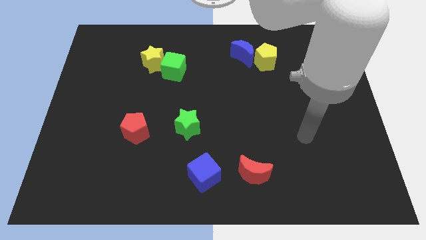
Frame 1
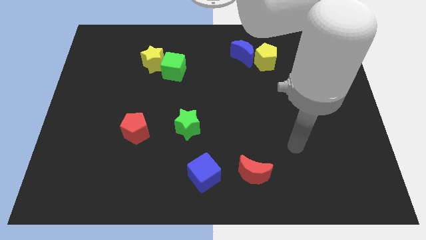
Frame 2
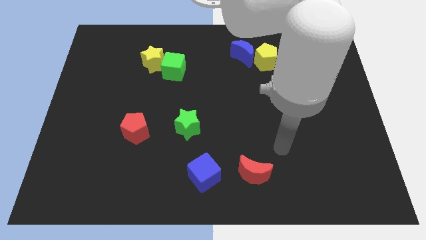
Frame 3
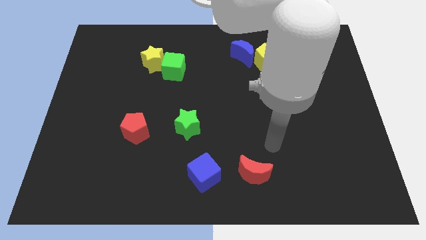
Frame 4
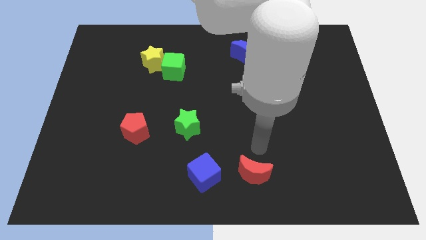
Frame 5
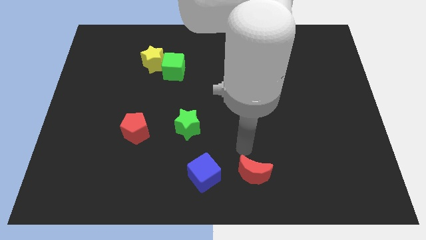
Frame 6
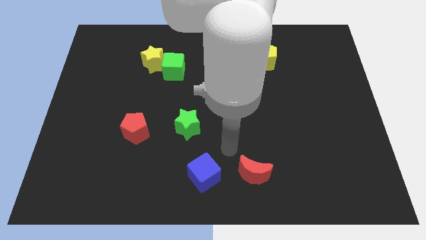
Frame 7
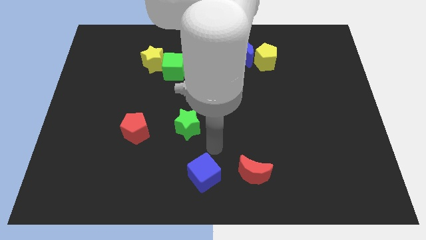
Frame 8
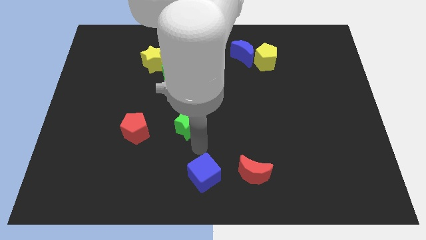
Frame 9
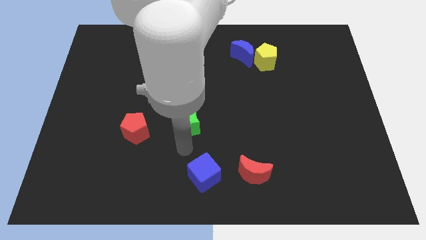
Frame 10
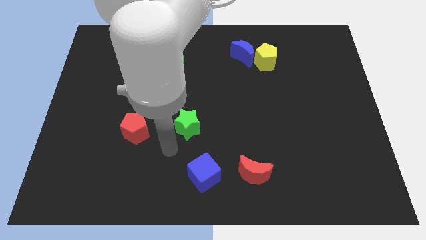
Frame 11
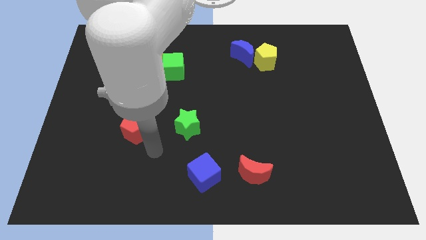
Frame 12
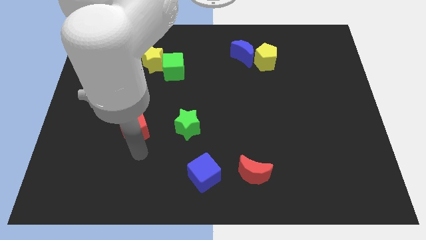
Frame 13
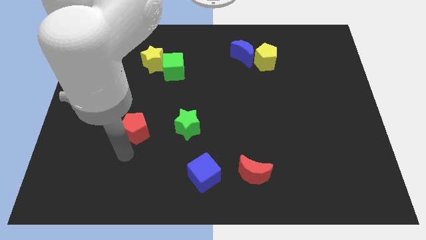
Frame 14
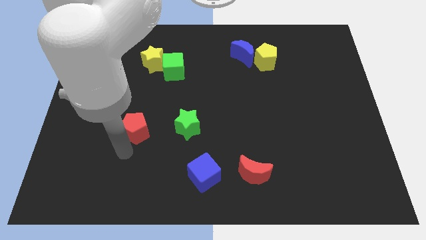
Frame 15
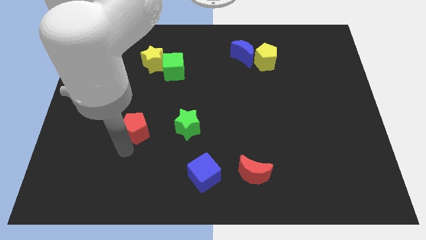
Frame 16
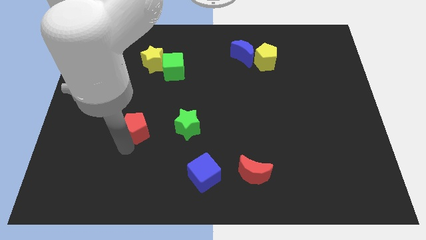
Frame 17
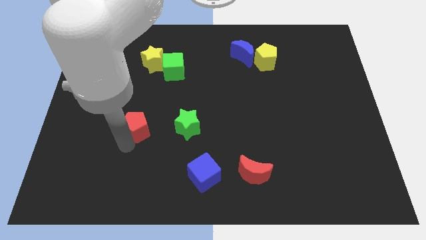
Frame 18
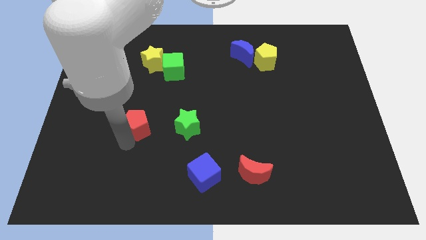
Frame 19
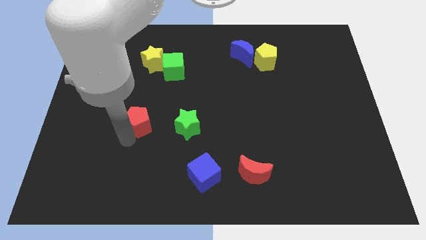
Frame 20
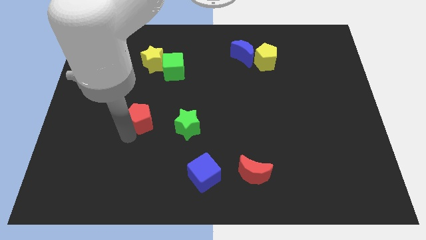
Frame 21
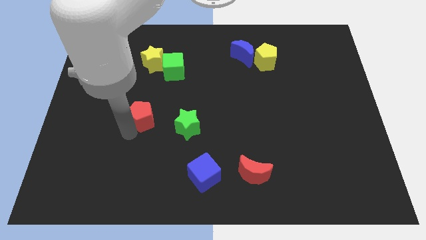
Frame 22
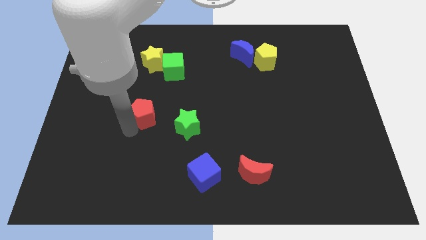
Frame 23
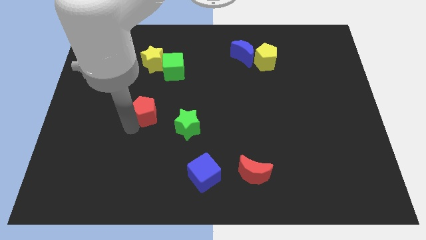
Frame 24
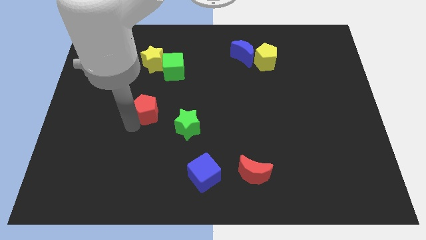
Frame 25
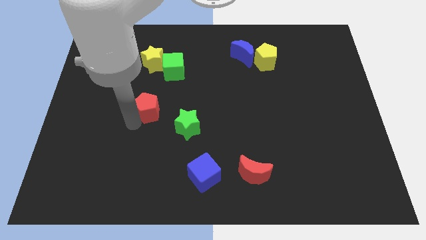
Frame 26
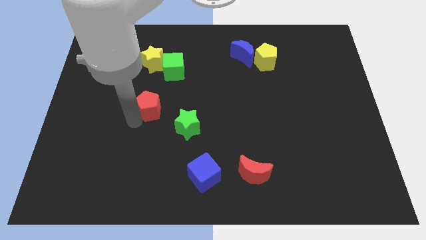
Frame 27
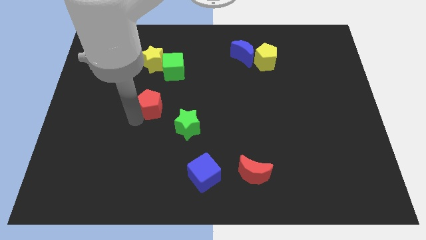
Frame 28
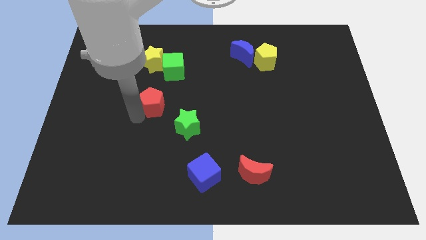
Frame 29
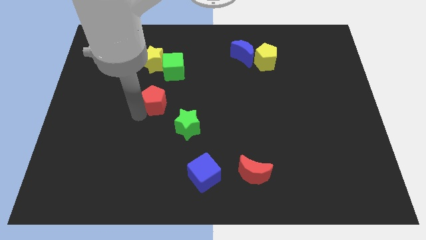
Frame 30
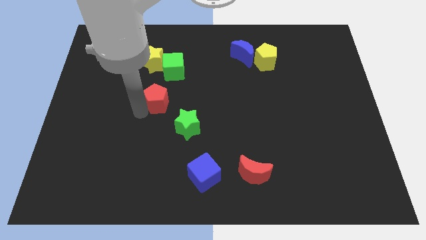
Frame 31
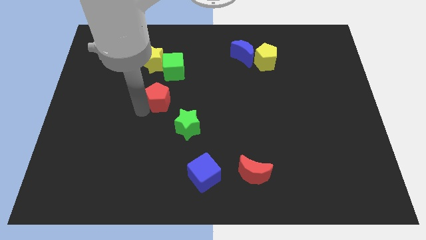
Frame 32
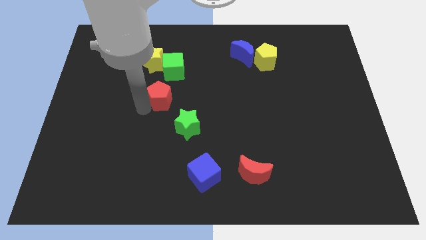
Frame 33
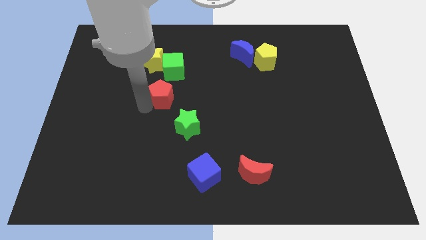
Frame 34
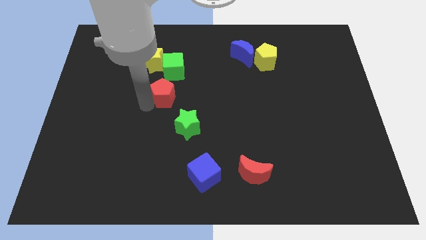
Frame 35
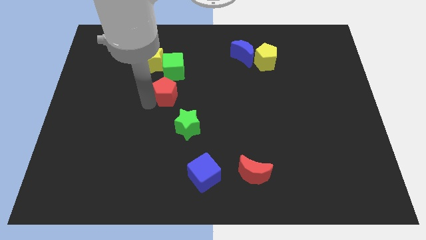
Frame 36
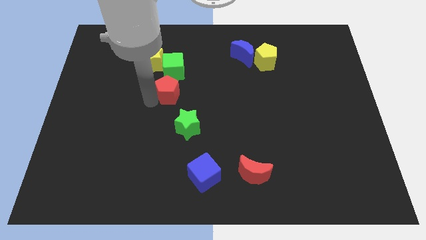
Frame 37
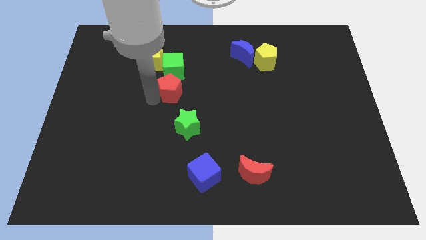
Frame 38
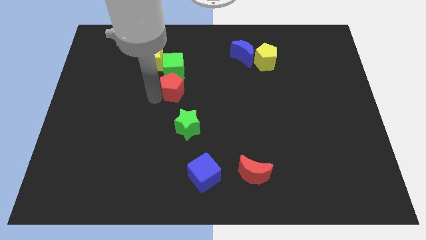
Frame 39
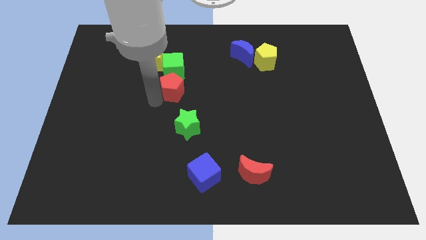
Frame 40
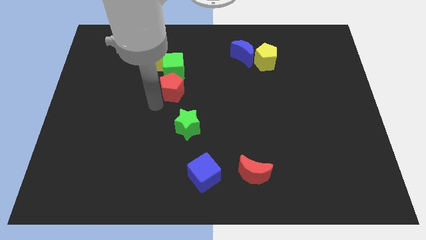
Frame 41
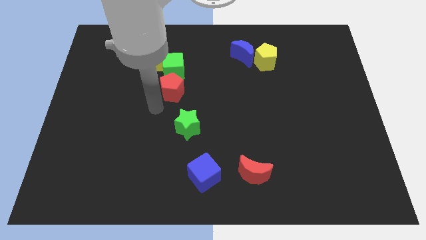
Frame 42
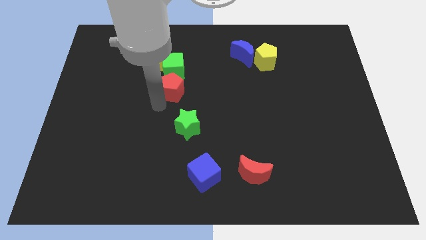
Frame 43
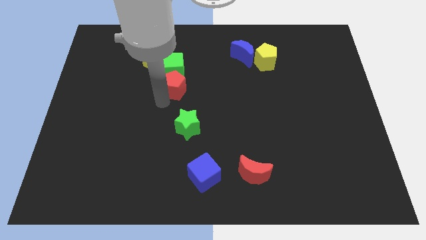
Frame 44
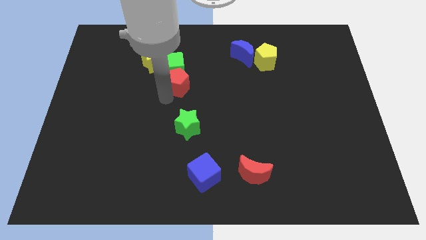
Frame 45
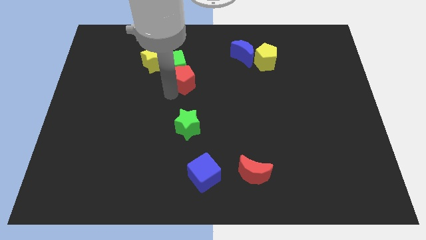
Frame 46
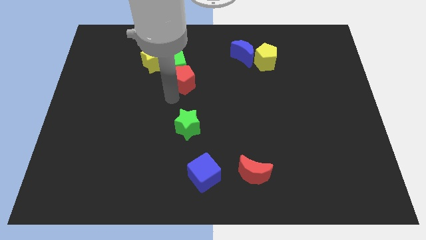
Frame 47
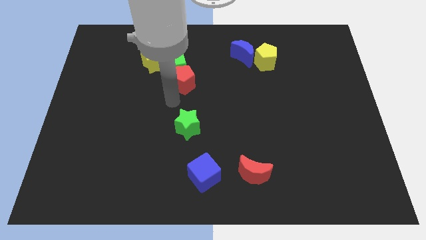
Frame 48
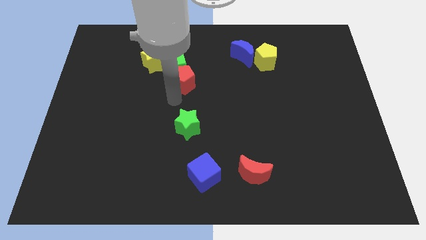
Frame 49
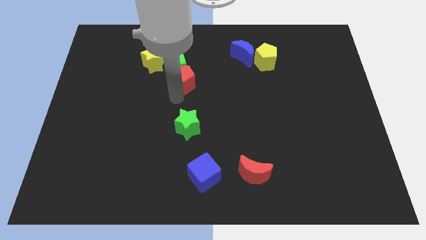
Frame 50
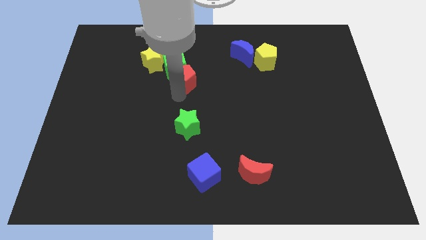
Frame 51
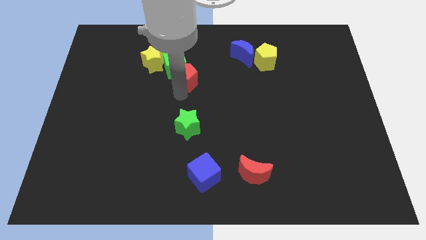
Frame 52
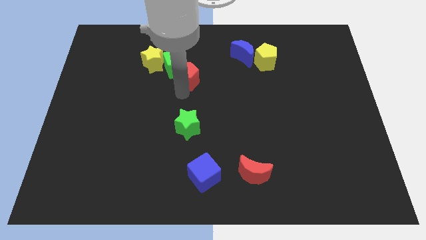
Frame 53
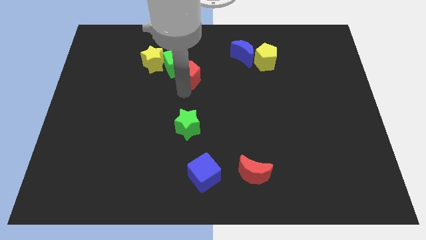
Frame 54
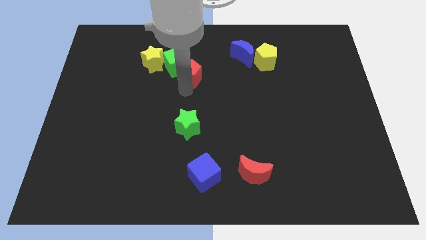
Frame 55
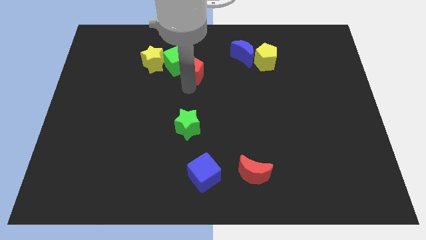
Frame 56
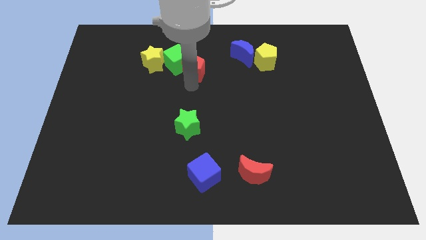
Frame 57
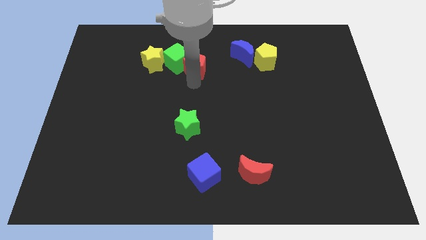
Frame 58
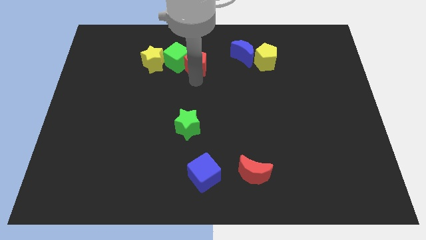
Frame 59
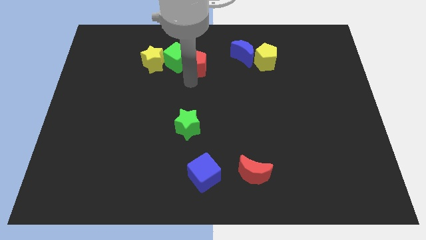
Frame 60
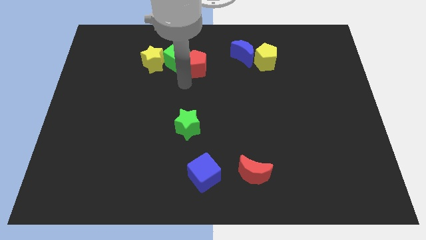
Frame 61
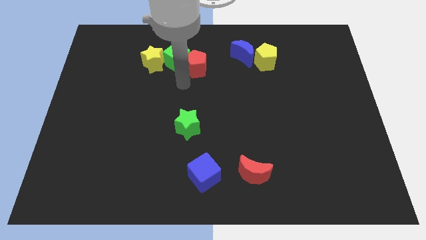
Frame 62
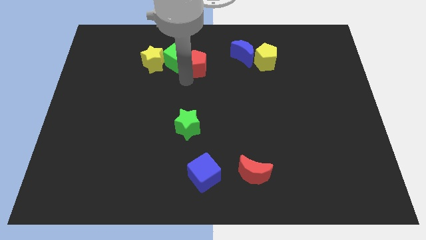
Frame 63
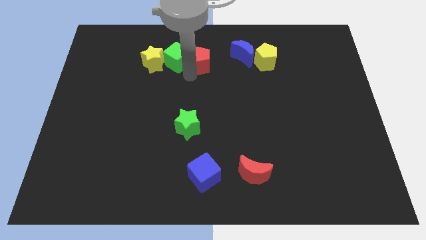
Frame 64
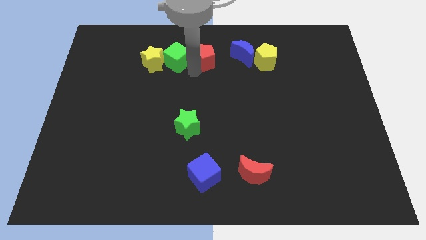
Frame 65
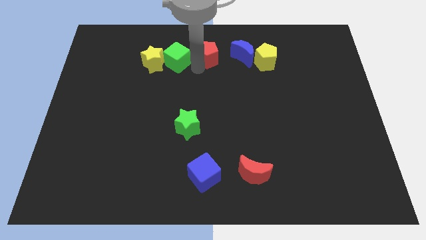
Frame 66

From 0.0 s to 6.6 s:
move the red pentagon to the top
